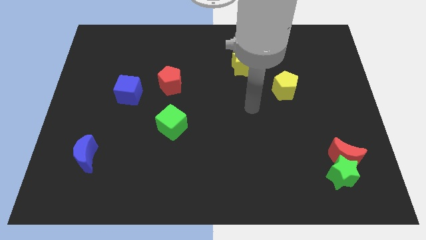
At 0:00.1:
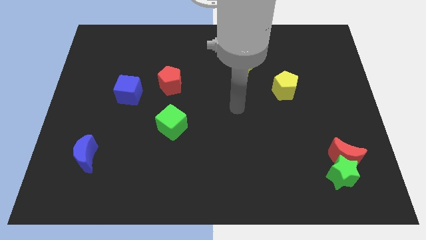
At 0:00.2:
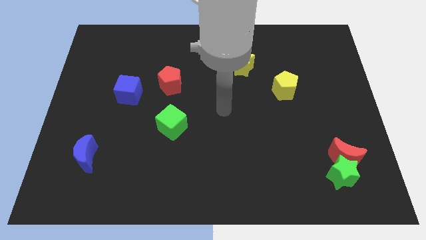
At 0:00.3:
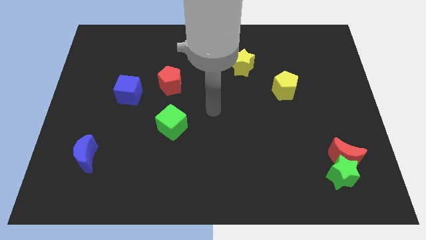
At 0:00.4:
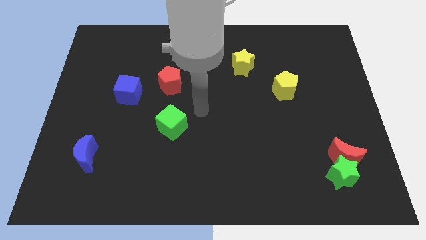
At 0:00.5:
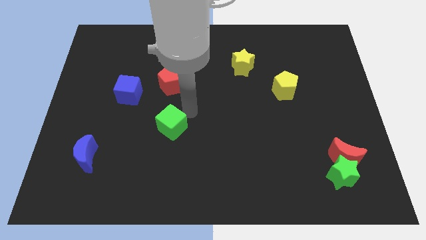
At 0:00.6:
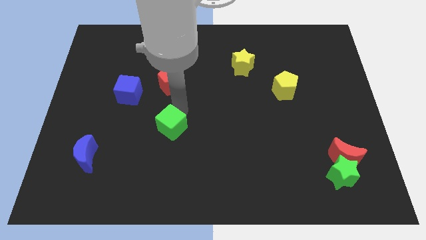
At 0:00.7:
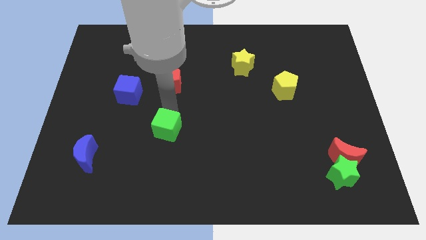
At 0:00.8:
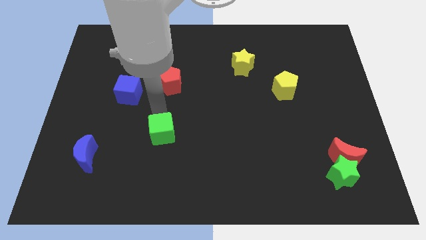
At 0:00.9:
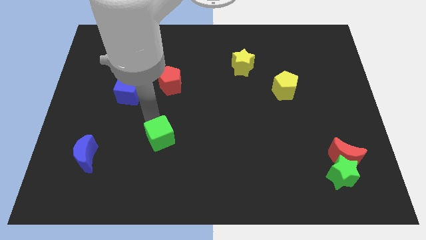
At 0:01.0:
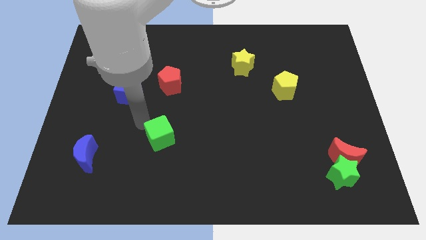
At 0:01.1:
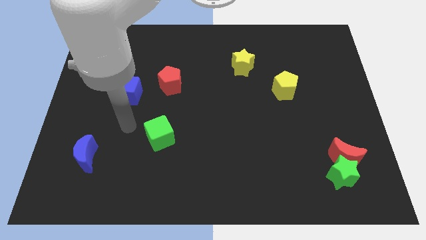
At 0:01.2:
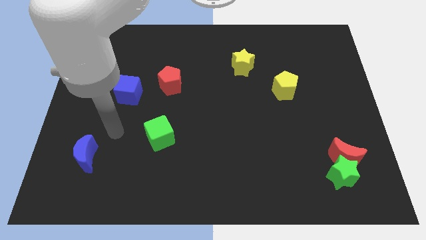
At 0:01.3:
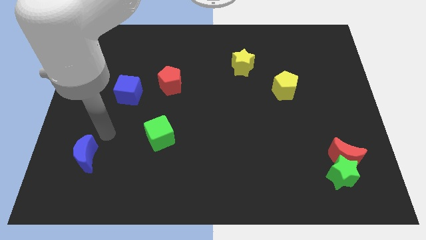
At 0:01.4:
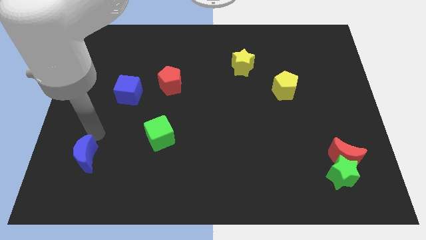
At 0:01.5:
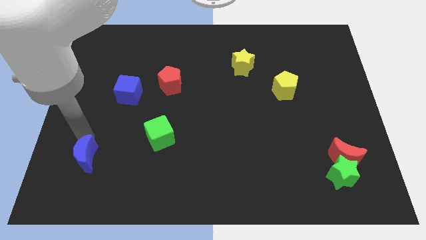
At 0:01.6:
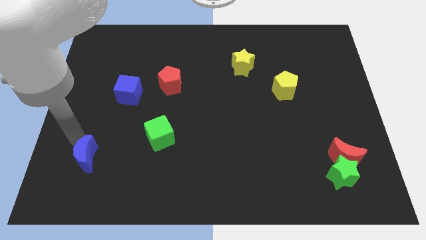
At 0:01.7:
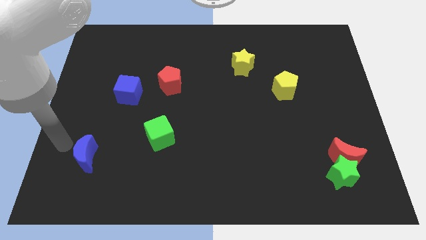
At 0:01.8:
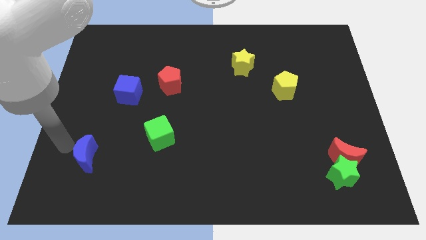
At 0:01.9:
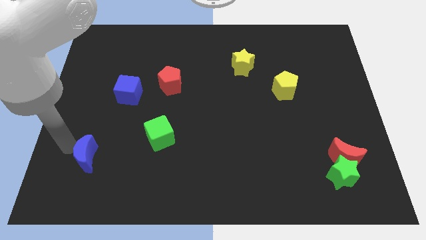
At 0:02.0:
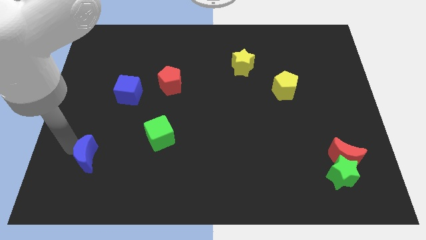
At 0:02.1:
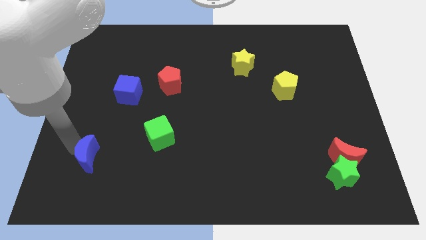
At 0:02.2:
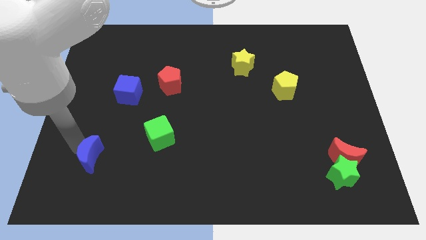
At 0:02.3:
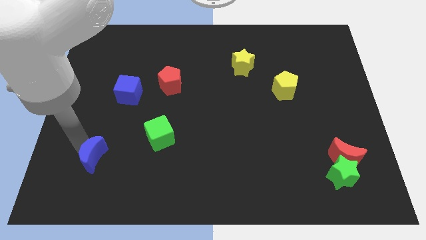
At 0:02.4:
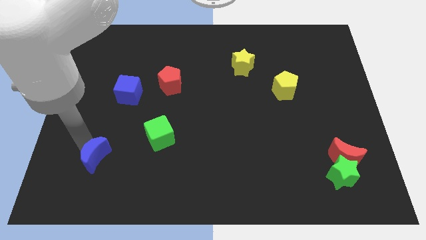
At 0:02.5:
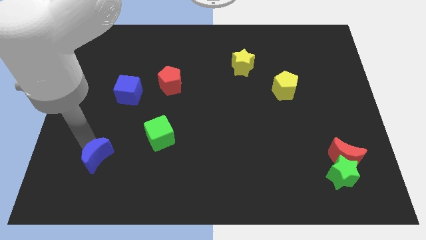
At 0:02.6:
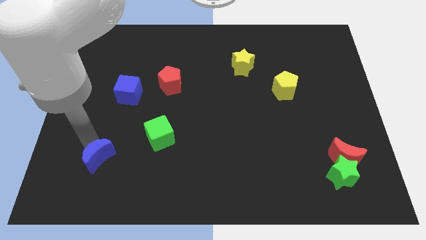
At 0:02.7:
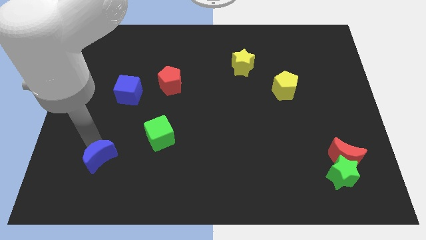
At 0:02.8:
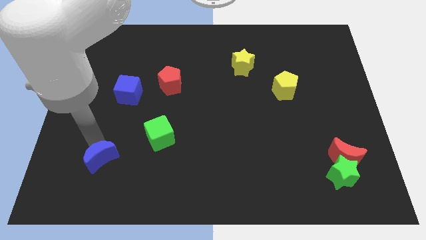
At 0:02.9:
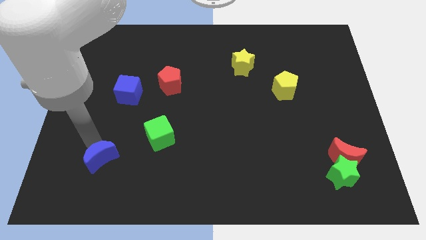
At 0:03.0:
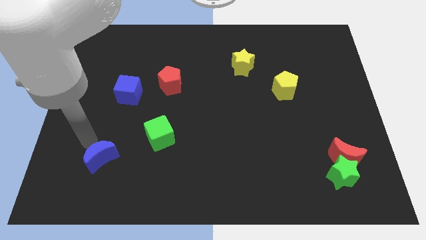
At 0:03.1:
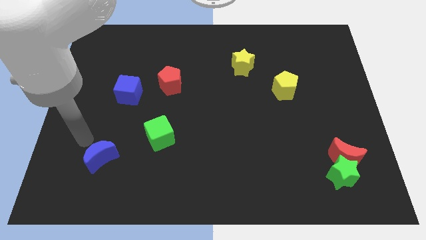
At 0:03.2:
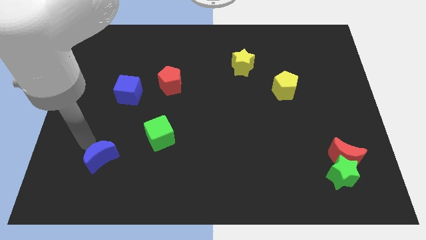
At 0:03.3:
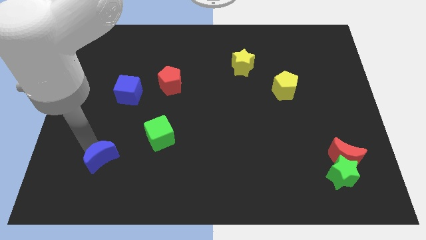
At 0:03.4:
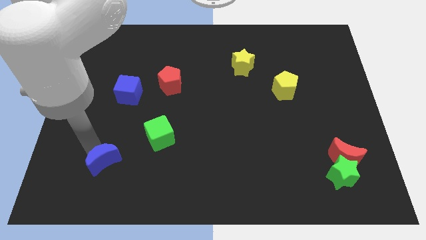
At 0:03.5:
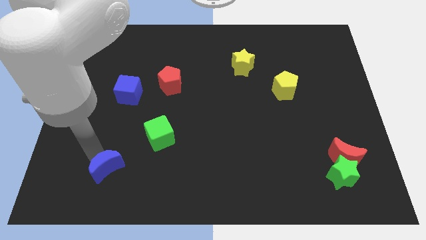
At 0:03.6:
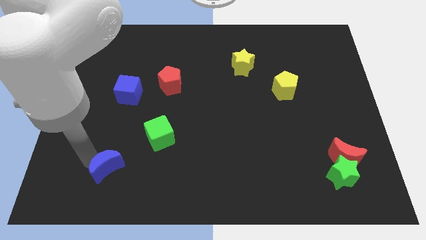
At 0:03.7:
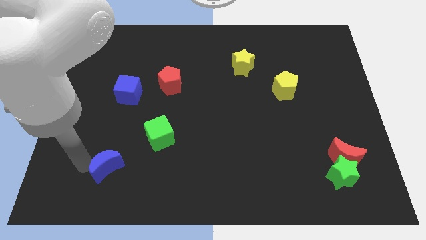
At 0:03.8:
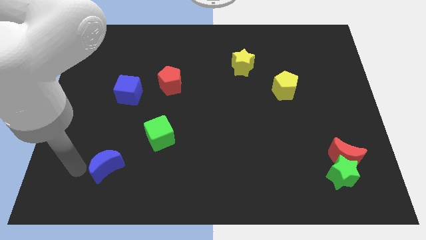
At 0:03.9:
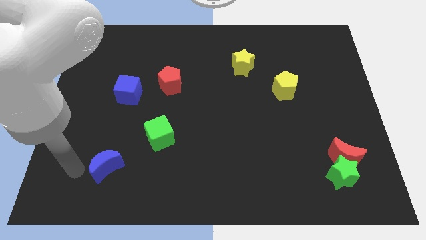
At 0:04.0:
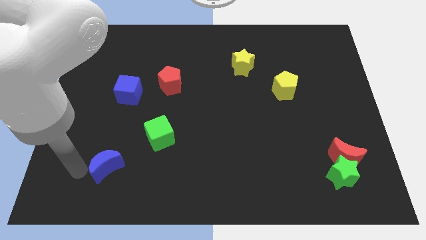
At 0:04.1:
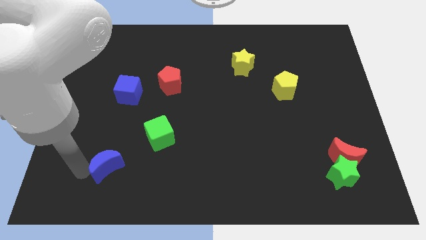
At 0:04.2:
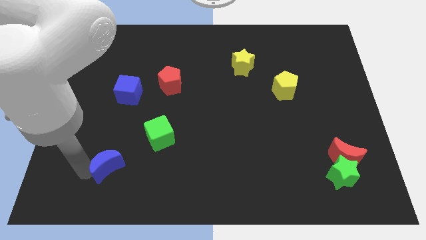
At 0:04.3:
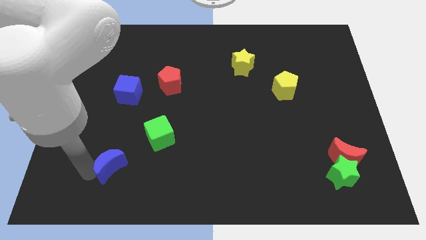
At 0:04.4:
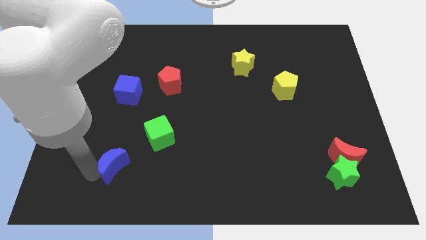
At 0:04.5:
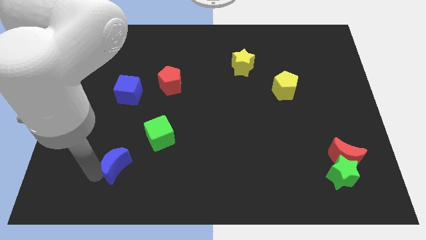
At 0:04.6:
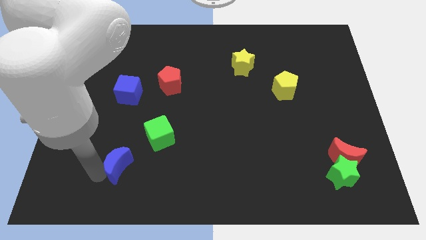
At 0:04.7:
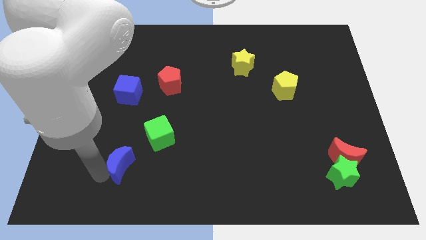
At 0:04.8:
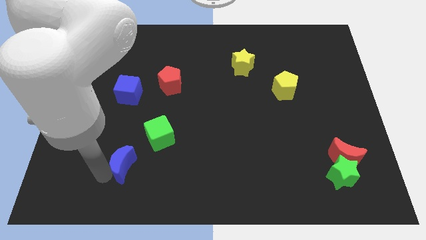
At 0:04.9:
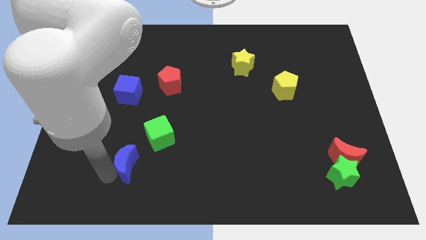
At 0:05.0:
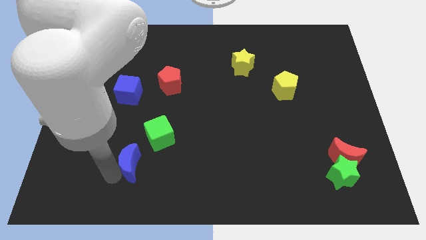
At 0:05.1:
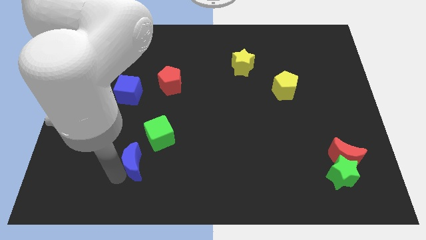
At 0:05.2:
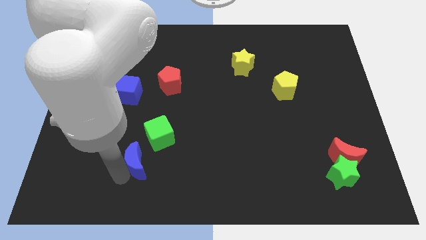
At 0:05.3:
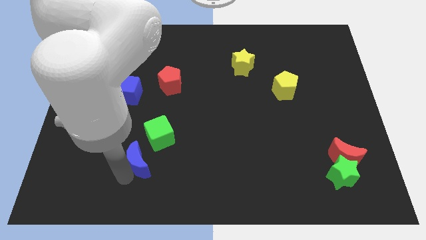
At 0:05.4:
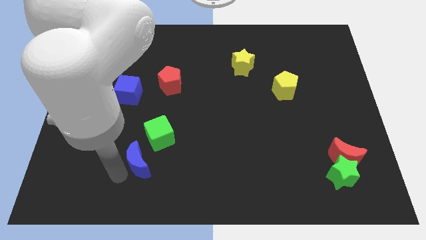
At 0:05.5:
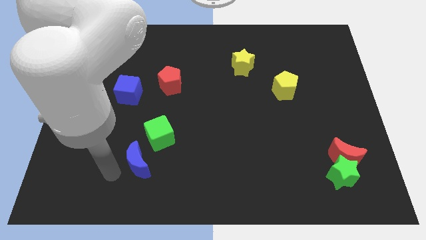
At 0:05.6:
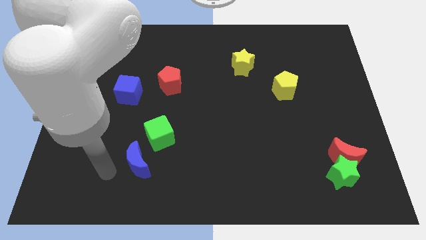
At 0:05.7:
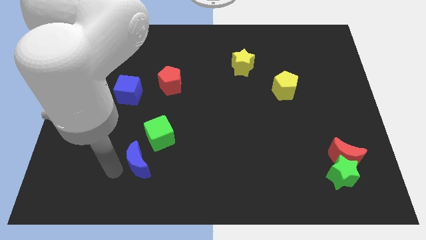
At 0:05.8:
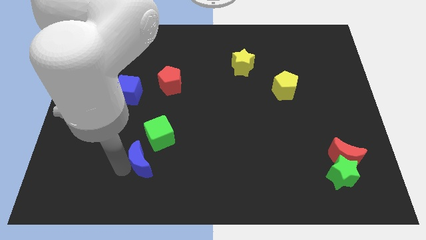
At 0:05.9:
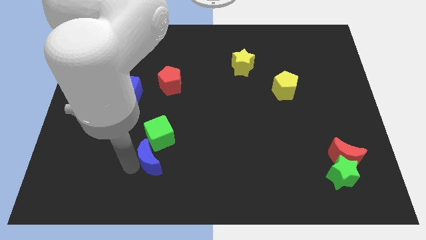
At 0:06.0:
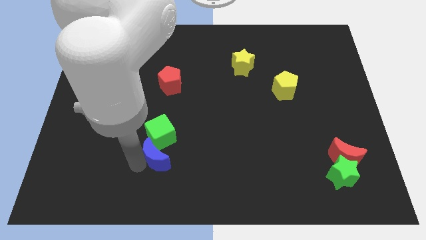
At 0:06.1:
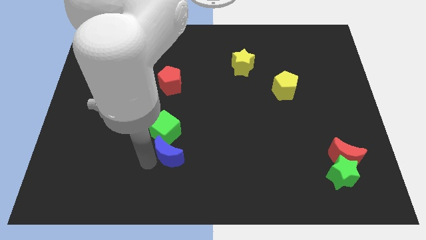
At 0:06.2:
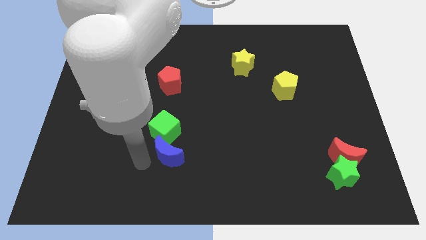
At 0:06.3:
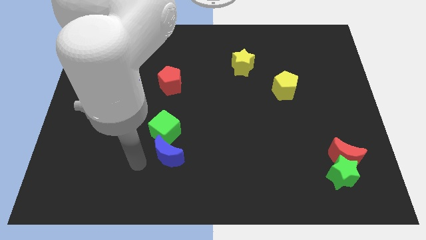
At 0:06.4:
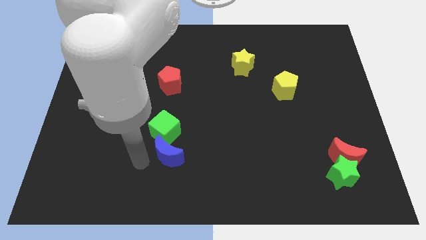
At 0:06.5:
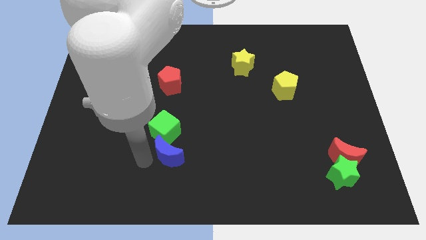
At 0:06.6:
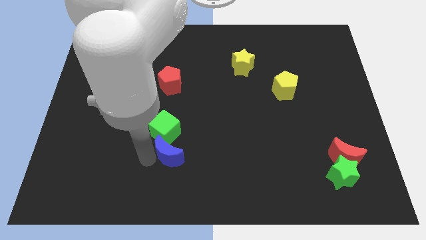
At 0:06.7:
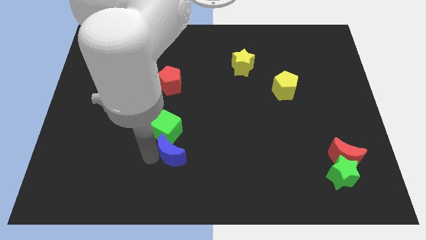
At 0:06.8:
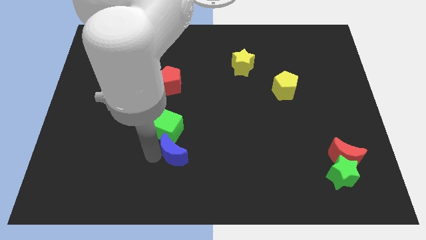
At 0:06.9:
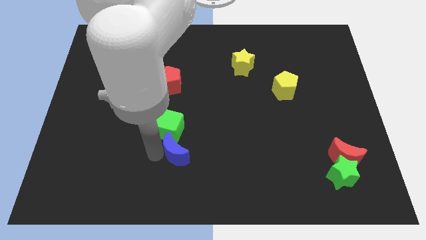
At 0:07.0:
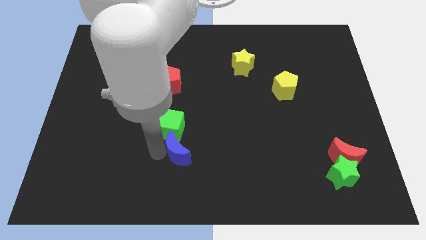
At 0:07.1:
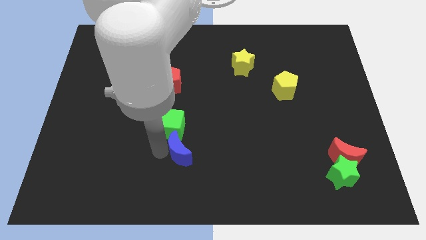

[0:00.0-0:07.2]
slide the blue moon right

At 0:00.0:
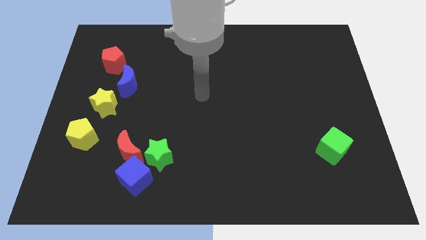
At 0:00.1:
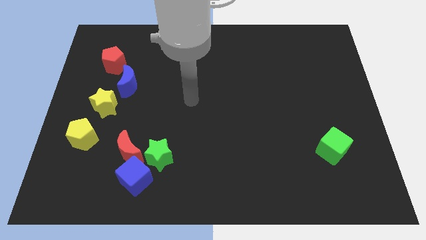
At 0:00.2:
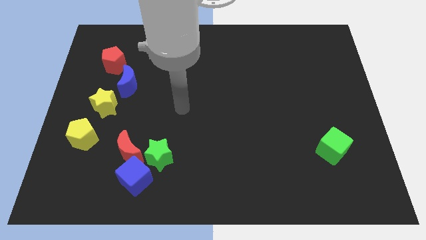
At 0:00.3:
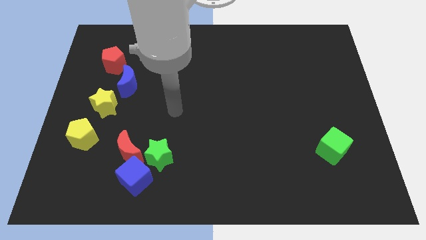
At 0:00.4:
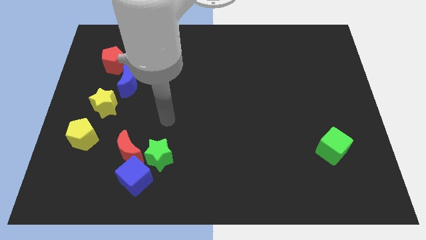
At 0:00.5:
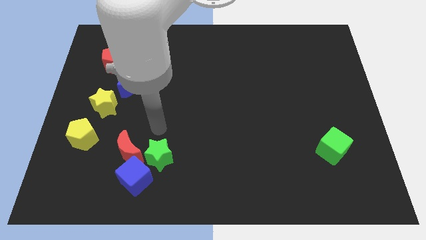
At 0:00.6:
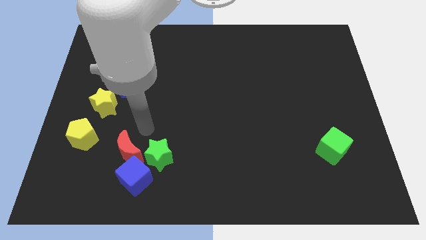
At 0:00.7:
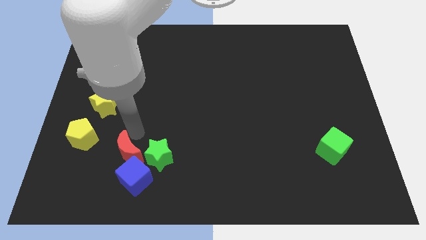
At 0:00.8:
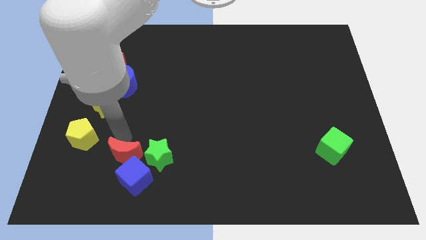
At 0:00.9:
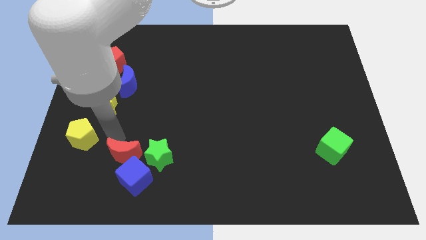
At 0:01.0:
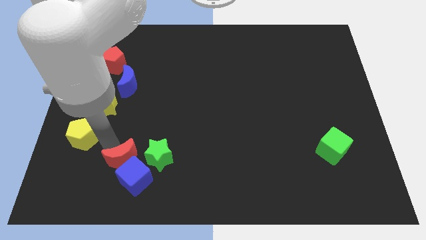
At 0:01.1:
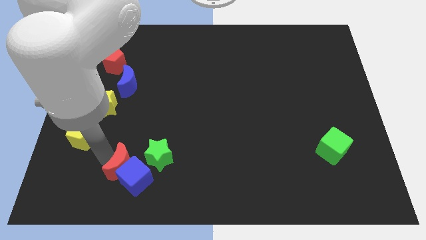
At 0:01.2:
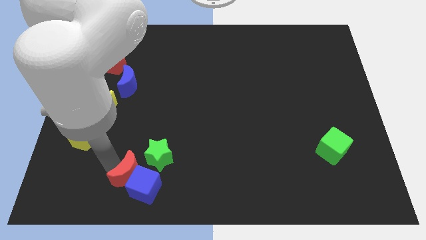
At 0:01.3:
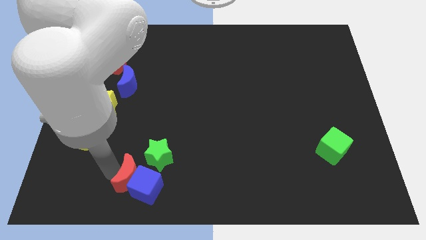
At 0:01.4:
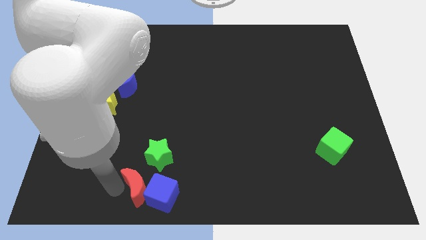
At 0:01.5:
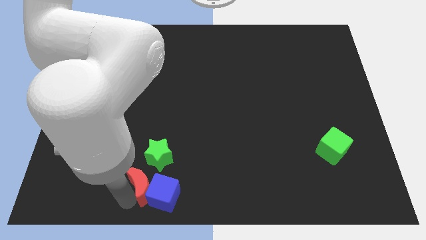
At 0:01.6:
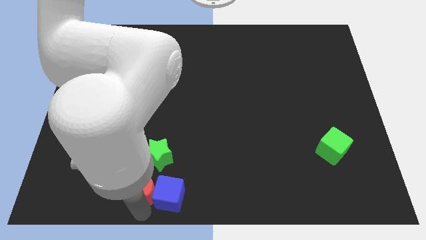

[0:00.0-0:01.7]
move the blue cube to the right a little bit
